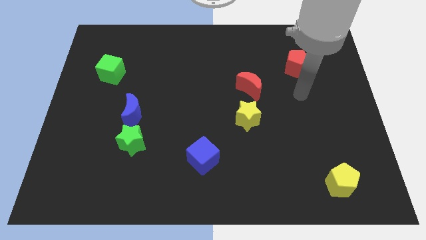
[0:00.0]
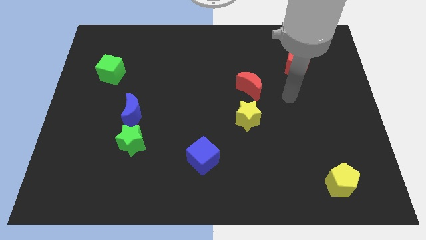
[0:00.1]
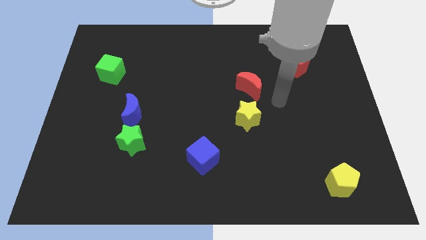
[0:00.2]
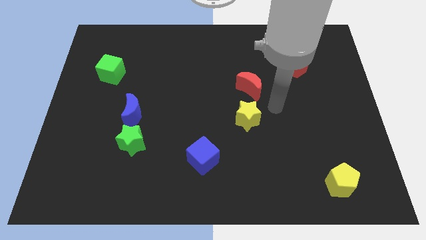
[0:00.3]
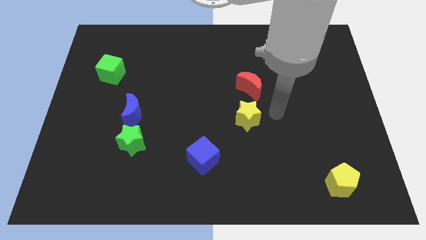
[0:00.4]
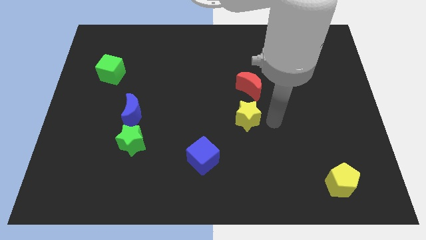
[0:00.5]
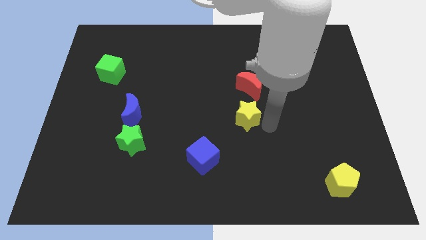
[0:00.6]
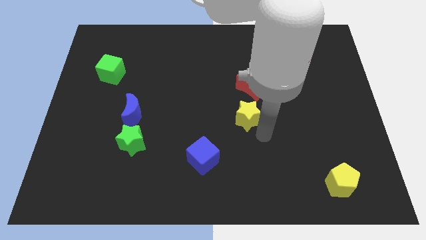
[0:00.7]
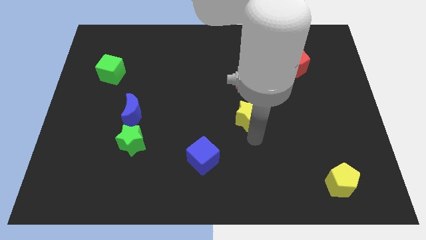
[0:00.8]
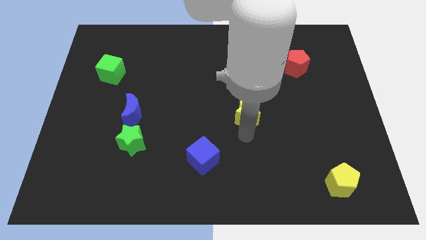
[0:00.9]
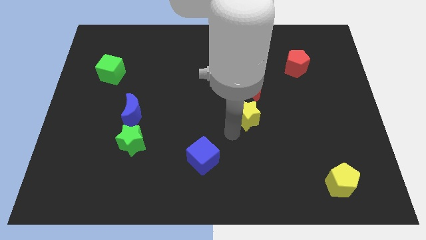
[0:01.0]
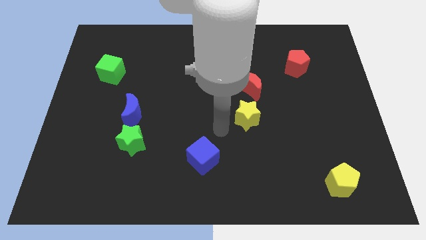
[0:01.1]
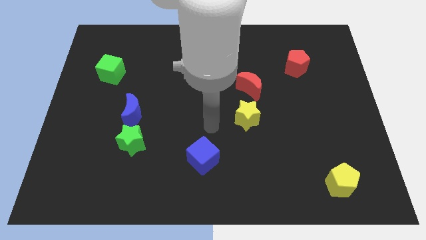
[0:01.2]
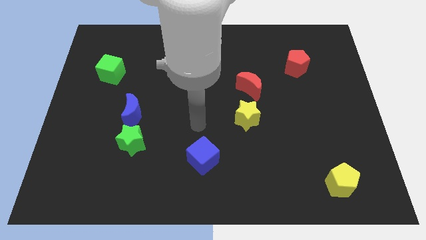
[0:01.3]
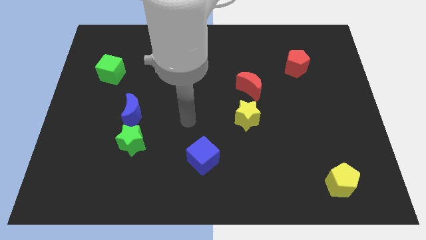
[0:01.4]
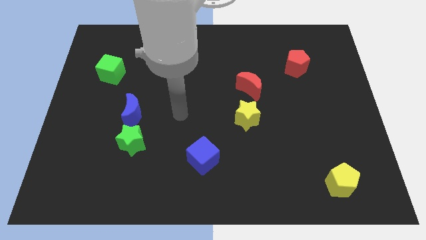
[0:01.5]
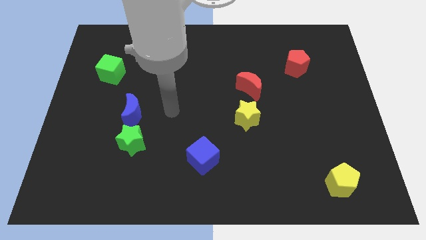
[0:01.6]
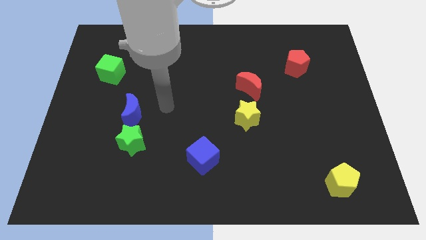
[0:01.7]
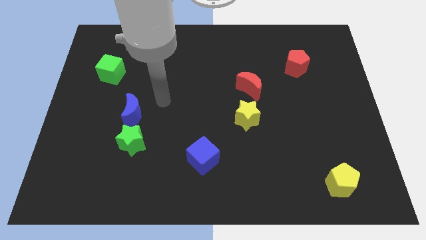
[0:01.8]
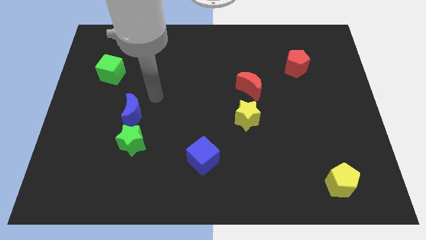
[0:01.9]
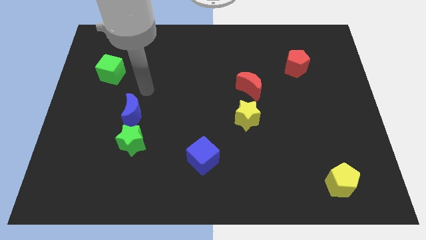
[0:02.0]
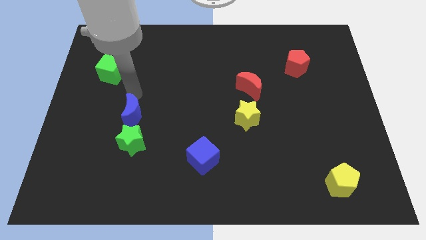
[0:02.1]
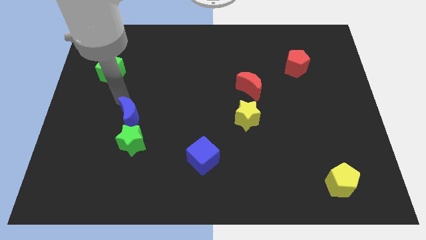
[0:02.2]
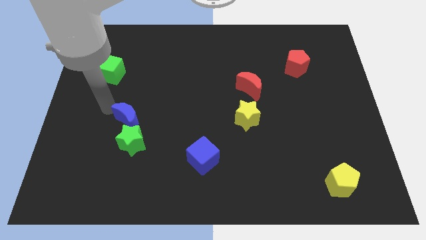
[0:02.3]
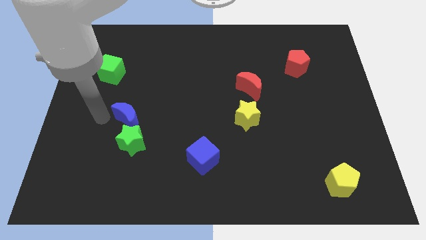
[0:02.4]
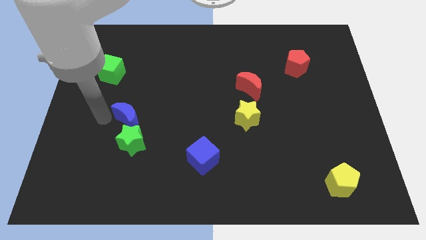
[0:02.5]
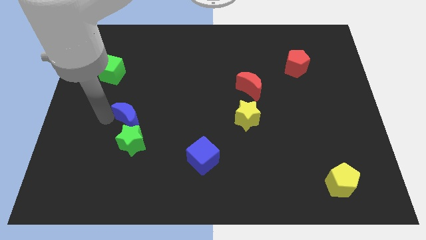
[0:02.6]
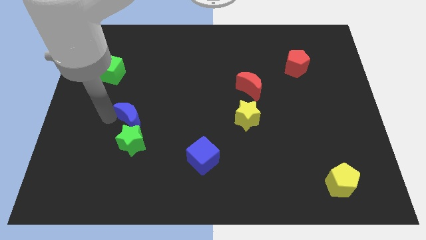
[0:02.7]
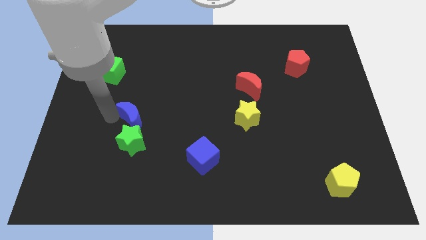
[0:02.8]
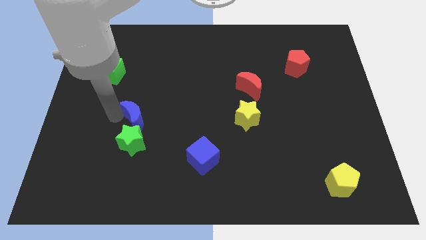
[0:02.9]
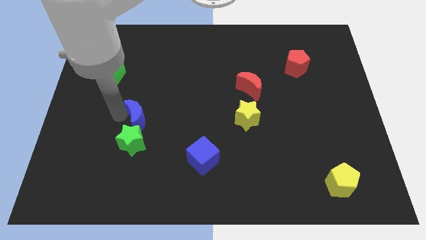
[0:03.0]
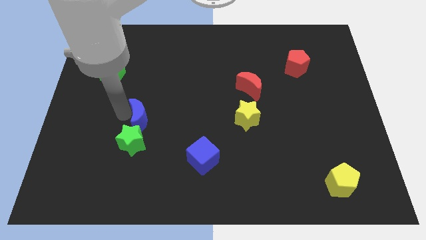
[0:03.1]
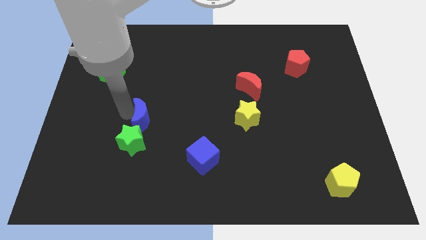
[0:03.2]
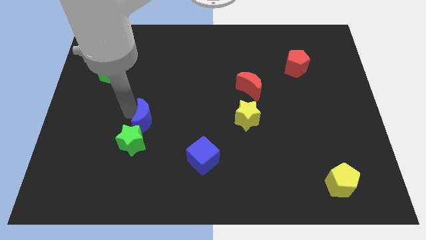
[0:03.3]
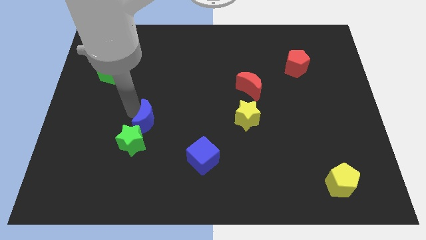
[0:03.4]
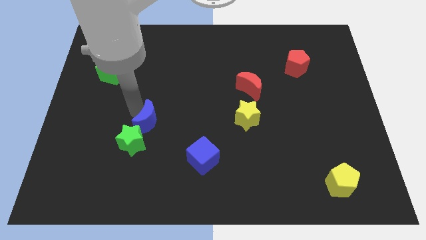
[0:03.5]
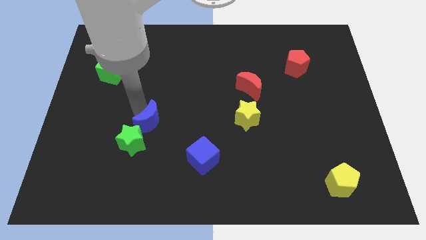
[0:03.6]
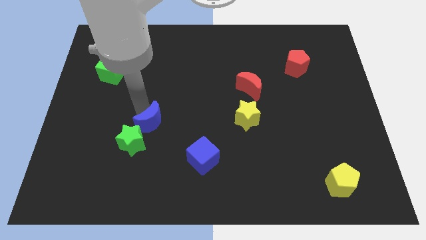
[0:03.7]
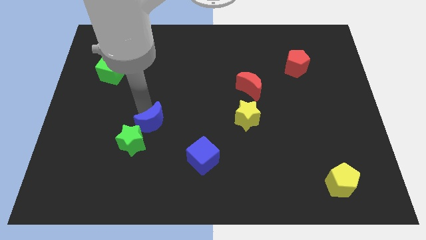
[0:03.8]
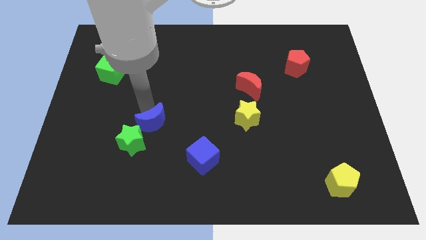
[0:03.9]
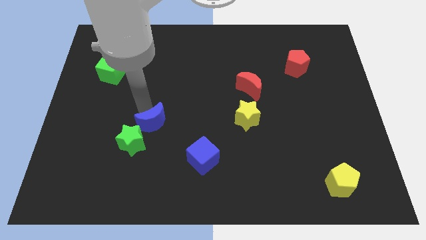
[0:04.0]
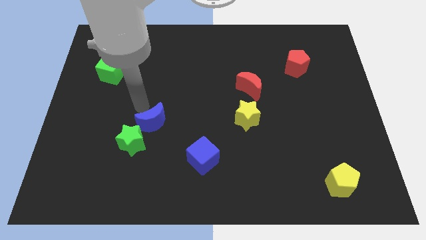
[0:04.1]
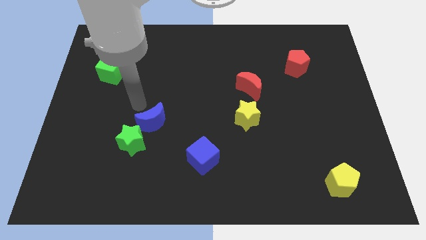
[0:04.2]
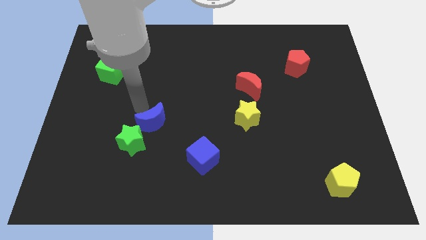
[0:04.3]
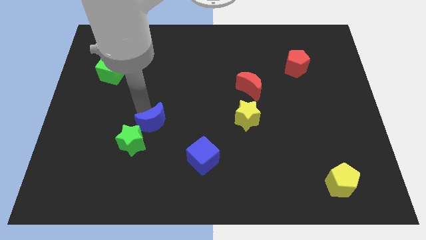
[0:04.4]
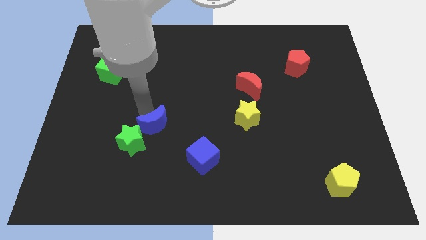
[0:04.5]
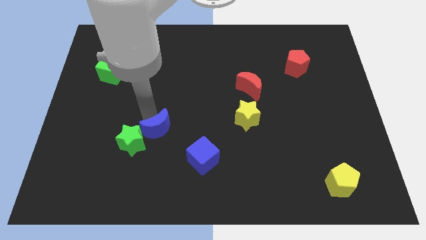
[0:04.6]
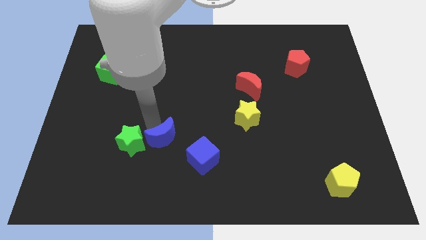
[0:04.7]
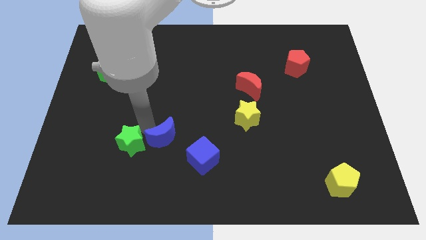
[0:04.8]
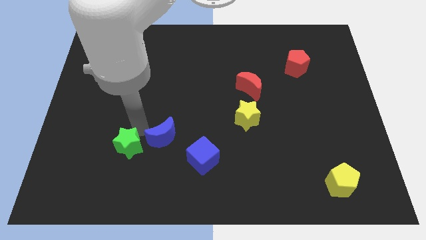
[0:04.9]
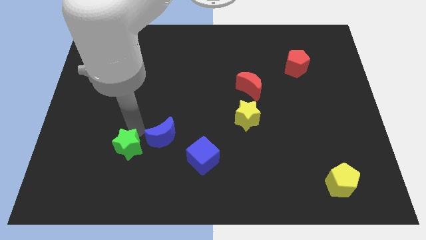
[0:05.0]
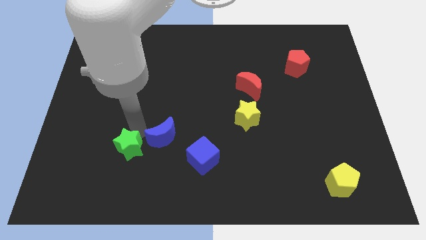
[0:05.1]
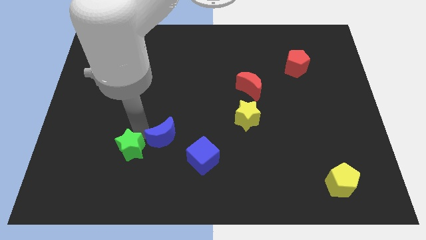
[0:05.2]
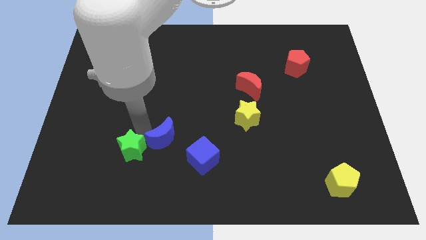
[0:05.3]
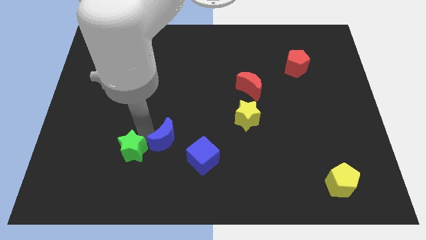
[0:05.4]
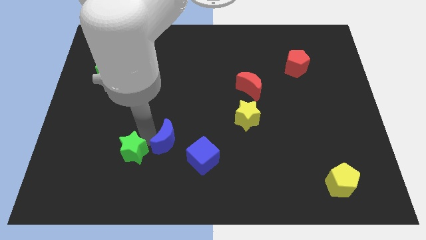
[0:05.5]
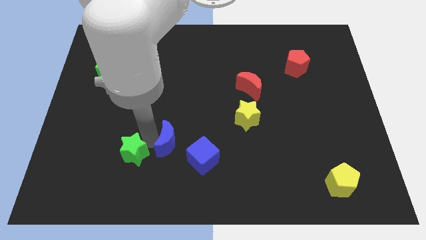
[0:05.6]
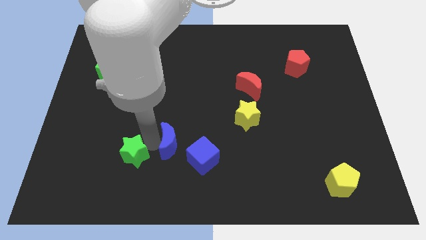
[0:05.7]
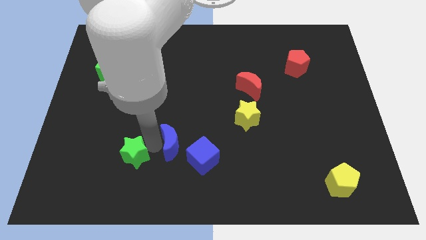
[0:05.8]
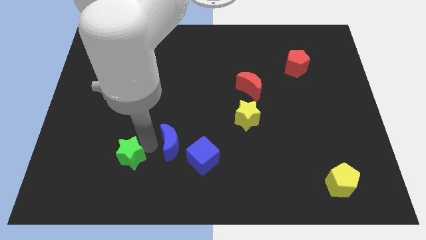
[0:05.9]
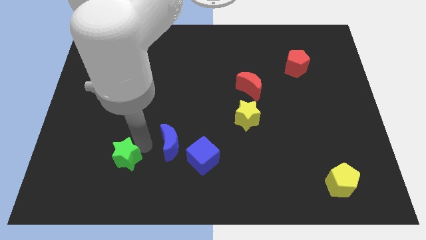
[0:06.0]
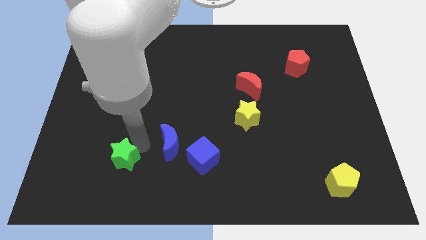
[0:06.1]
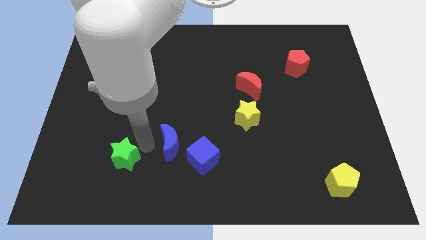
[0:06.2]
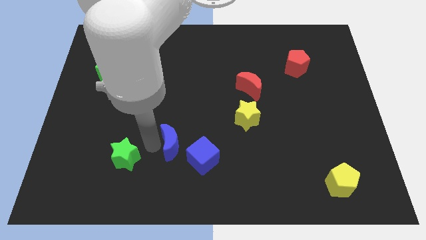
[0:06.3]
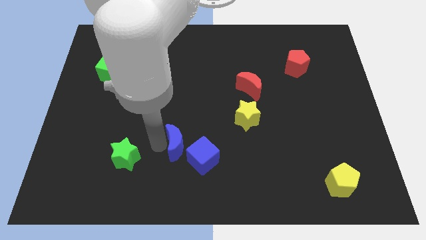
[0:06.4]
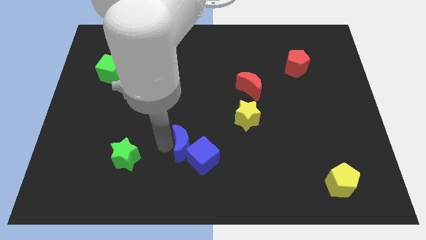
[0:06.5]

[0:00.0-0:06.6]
move the blue moon towards the blue cube

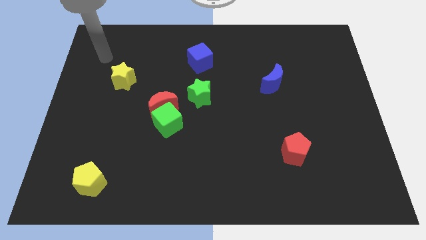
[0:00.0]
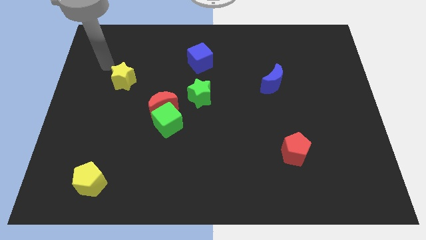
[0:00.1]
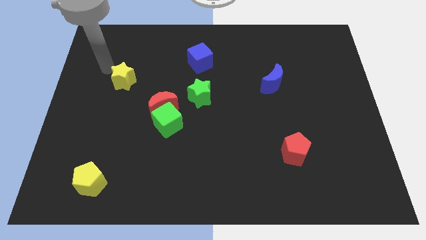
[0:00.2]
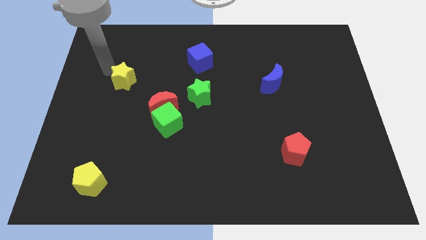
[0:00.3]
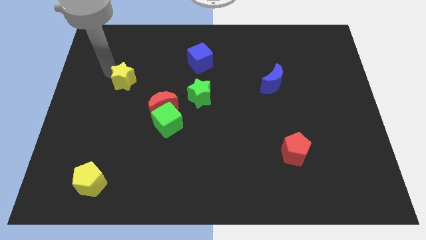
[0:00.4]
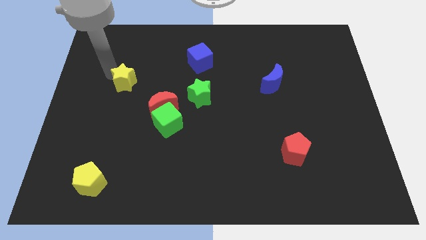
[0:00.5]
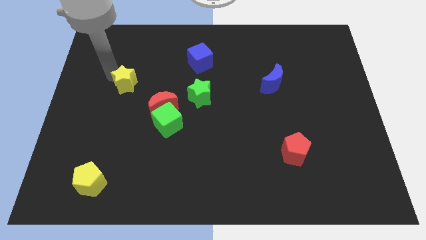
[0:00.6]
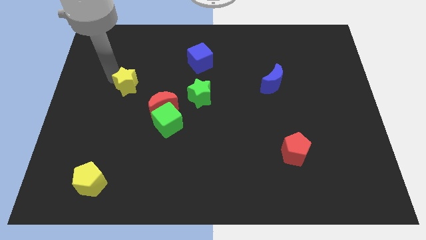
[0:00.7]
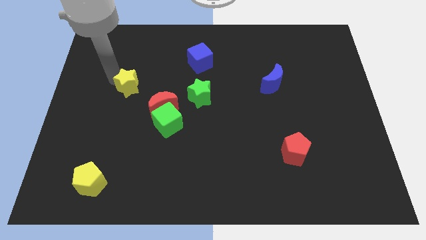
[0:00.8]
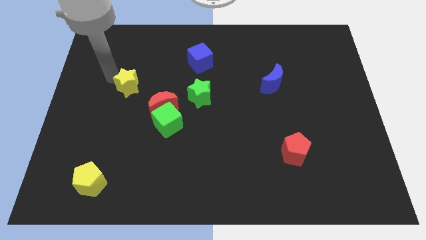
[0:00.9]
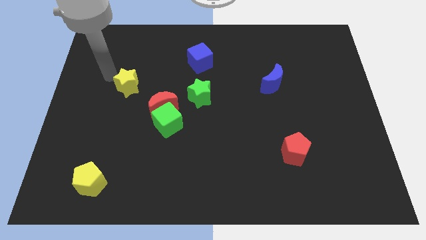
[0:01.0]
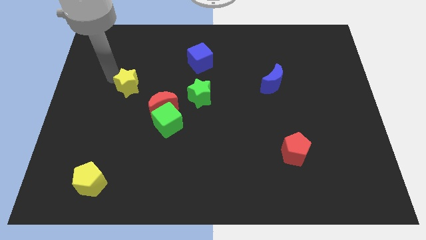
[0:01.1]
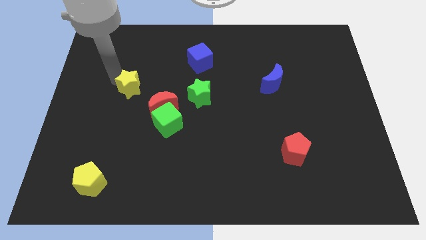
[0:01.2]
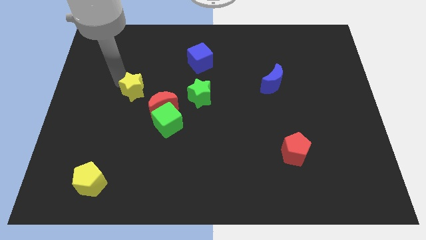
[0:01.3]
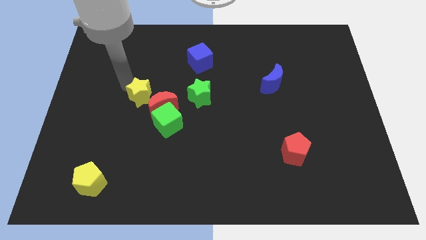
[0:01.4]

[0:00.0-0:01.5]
slide the yellow star next to the red moon

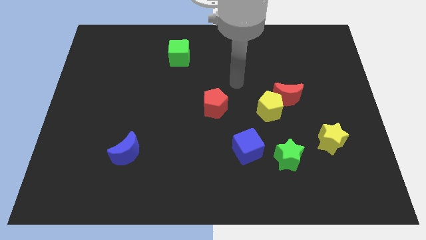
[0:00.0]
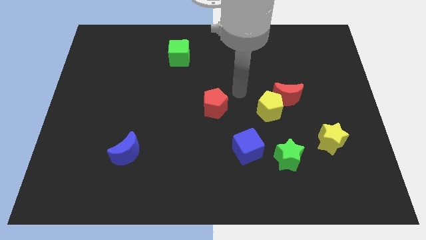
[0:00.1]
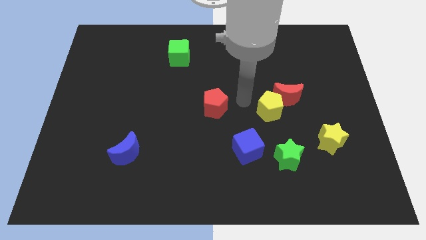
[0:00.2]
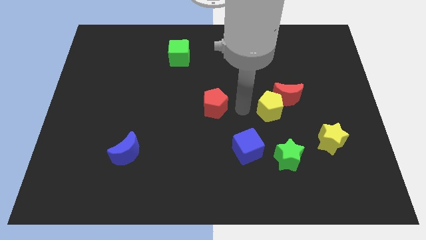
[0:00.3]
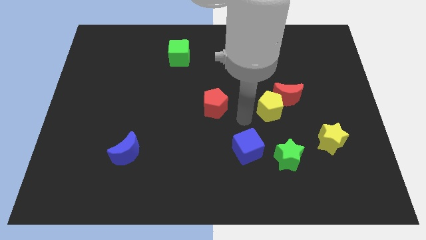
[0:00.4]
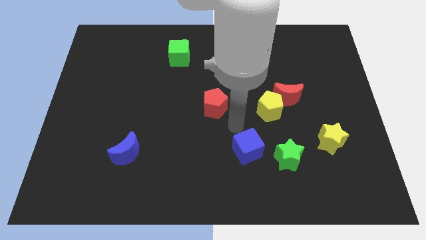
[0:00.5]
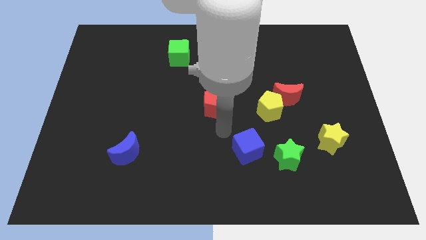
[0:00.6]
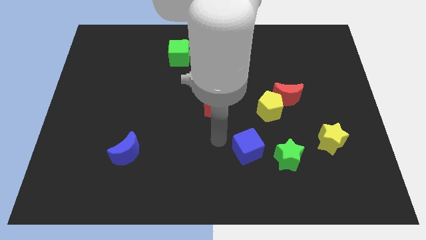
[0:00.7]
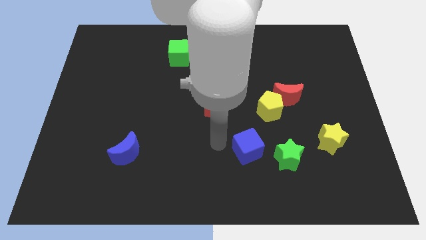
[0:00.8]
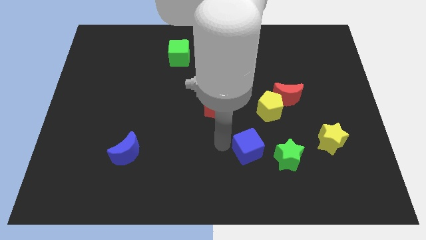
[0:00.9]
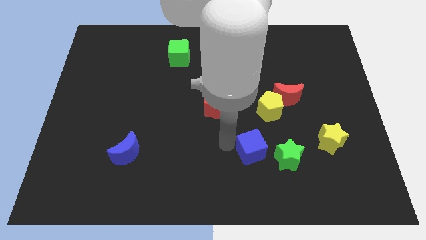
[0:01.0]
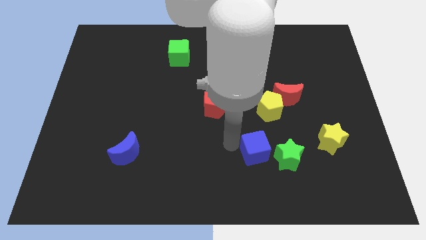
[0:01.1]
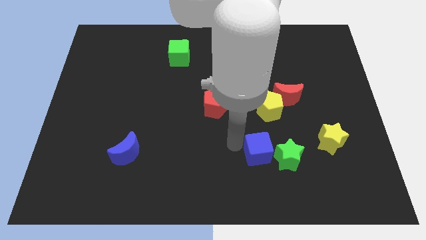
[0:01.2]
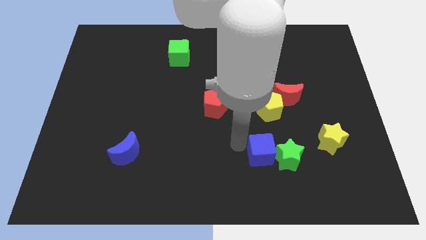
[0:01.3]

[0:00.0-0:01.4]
slide the blue cube towards the green star
